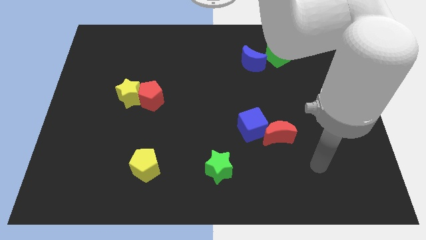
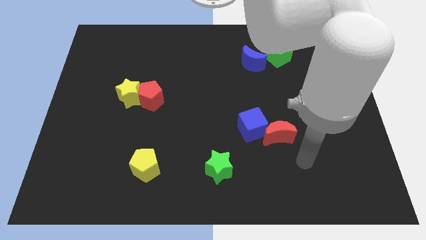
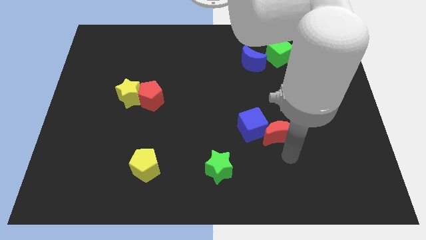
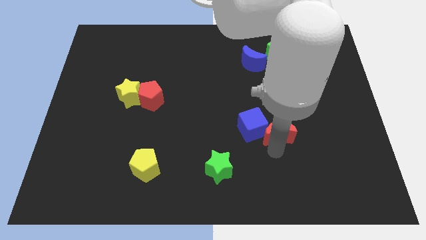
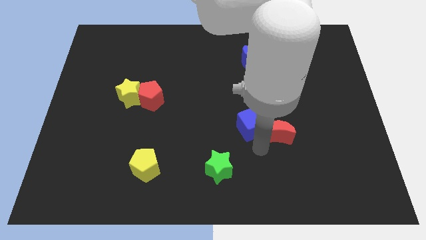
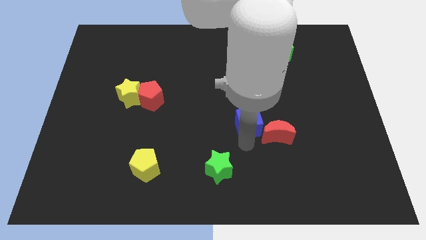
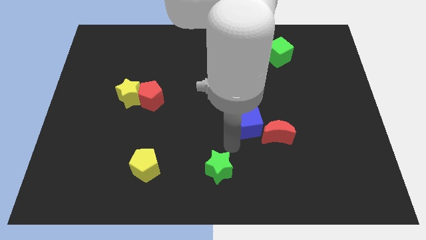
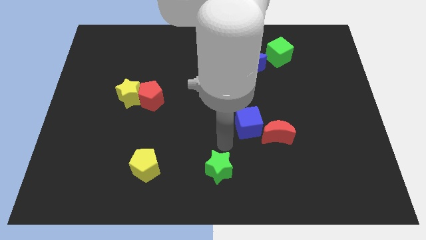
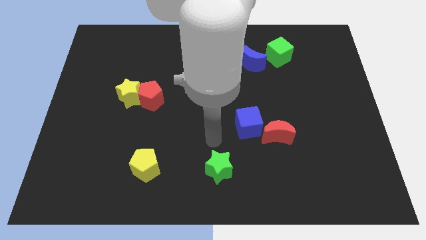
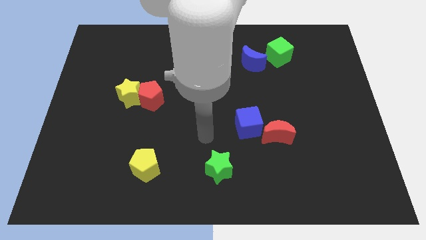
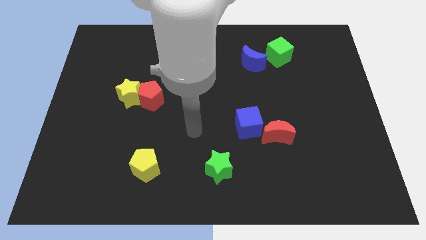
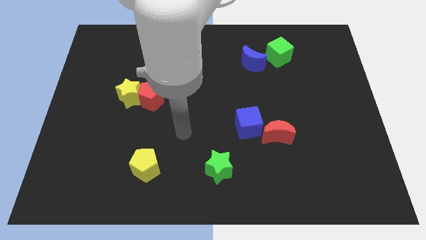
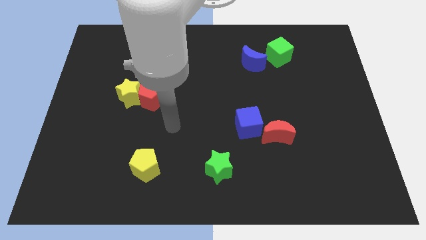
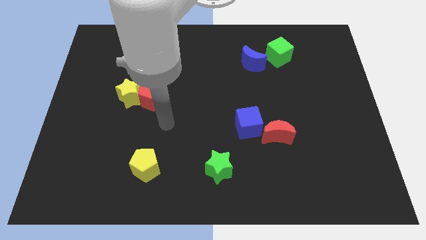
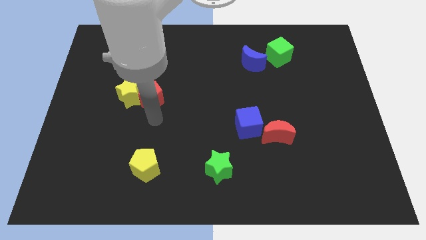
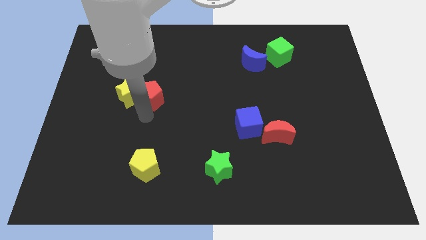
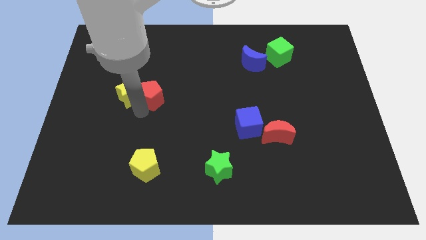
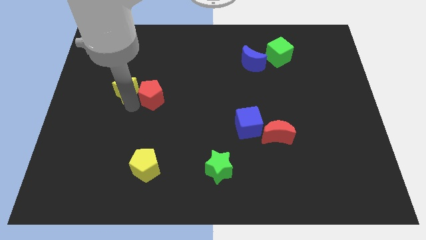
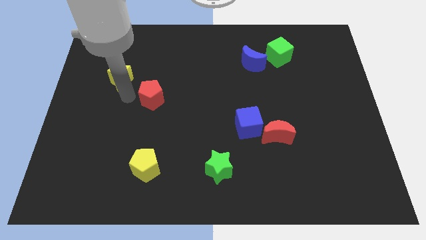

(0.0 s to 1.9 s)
separate the red pentagon from the yellow star

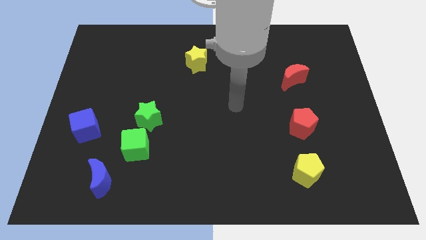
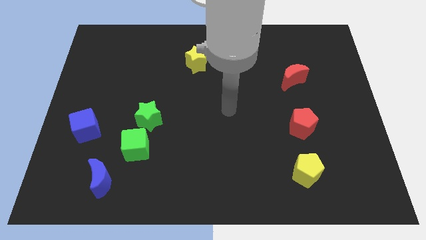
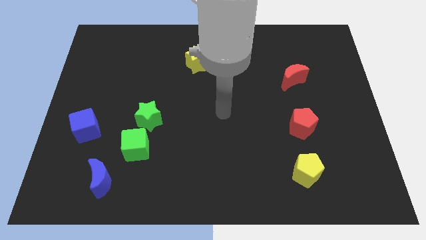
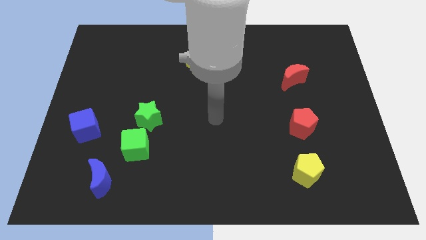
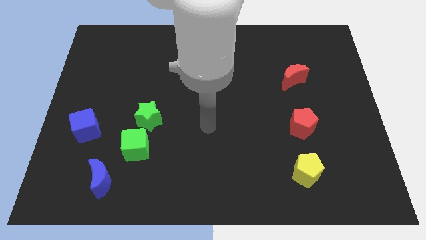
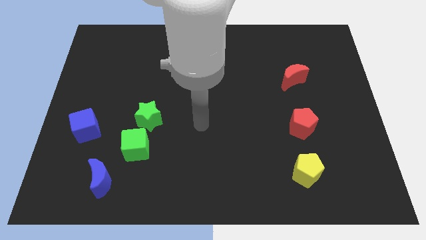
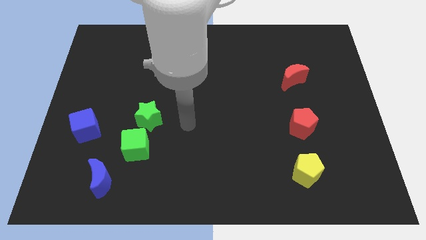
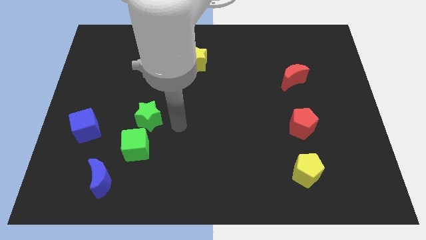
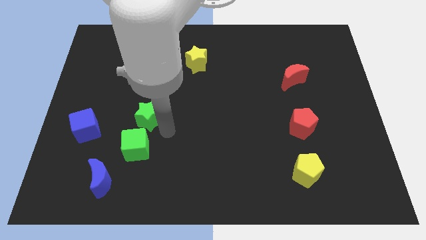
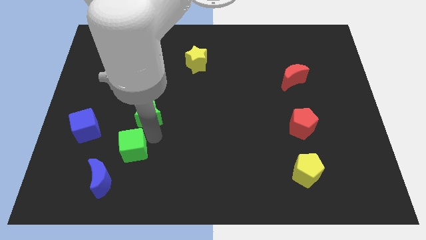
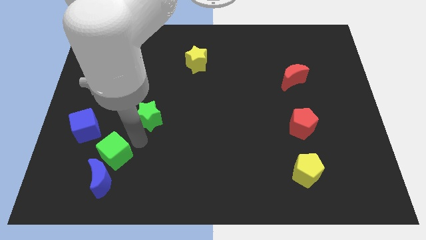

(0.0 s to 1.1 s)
separate the green star from the green cube

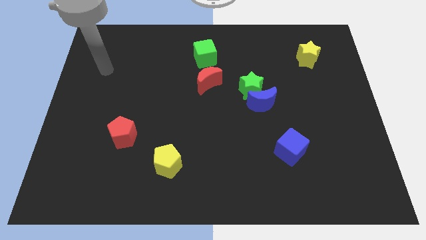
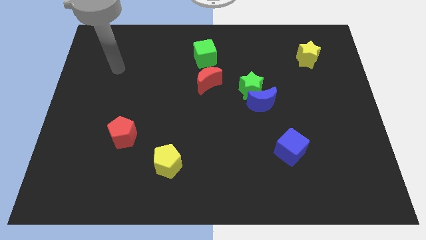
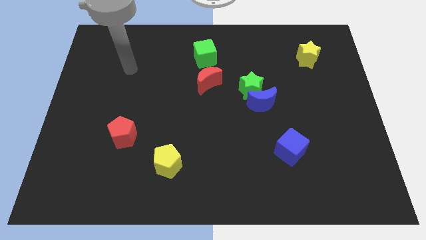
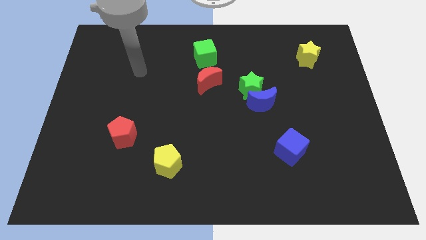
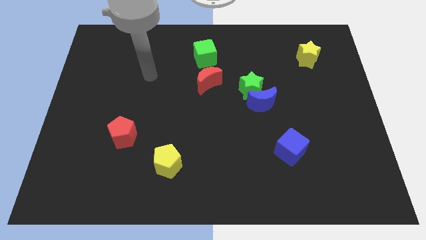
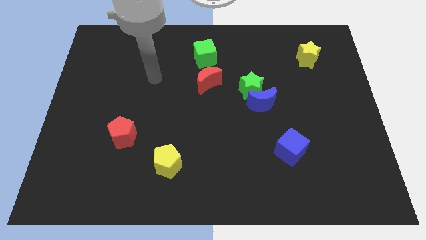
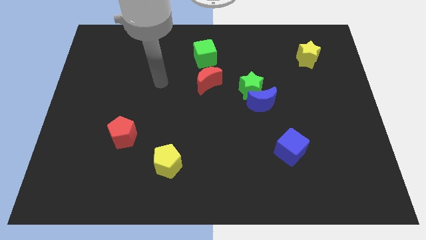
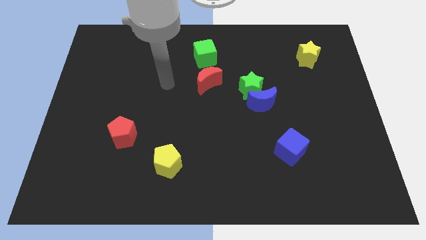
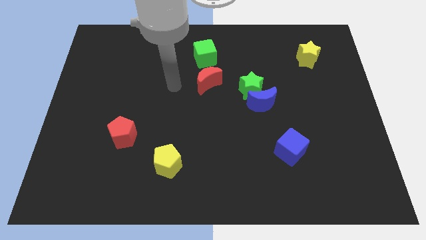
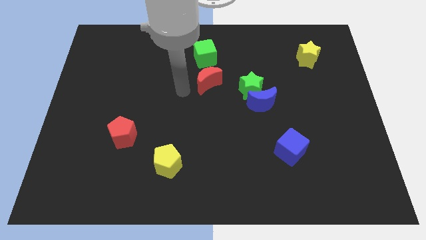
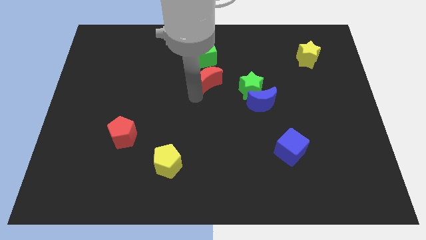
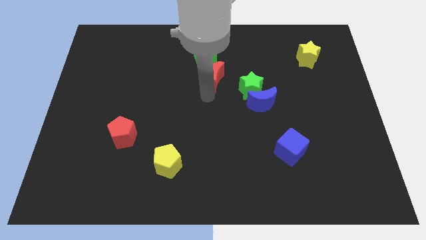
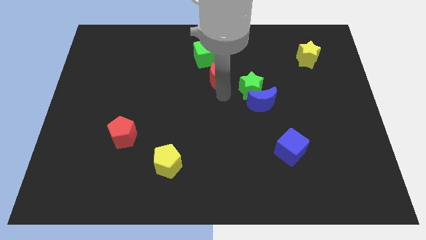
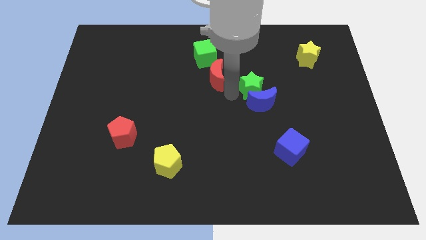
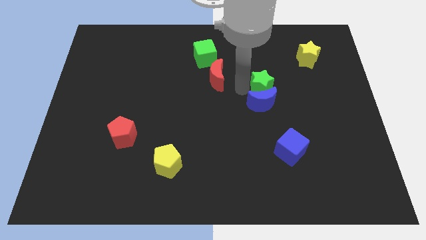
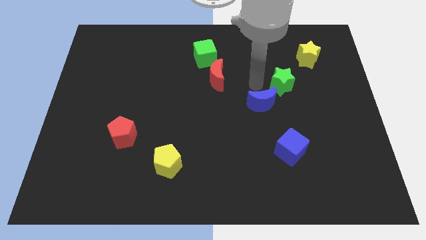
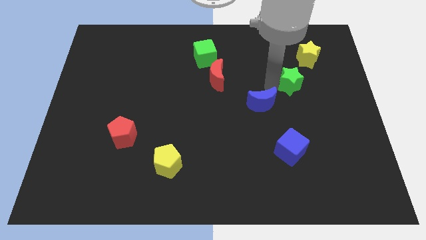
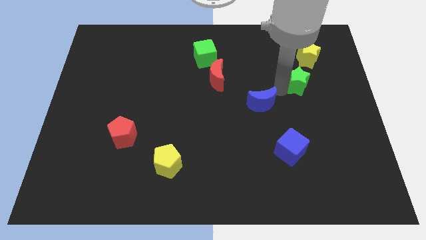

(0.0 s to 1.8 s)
separate the blue moon from the green star

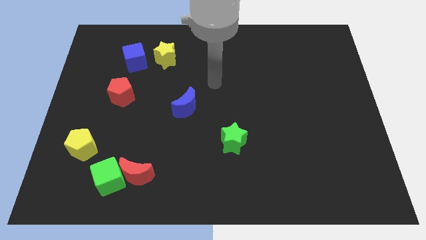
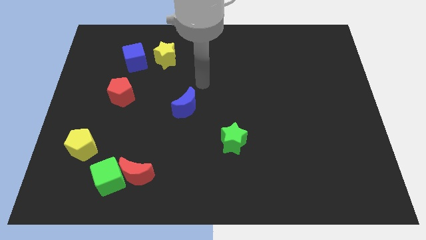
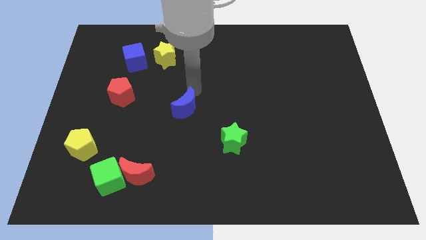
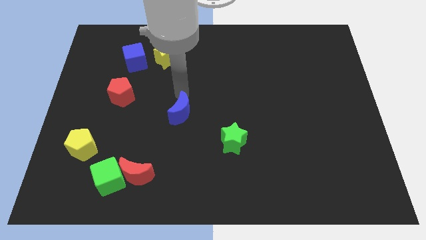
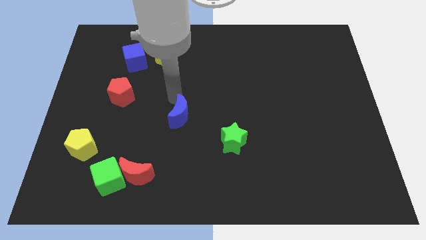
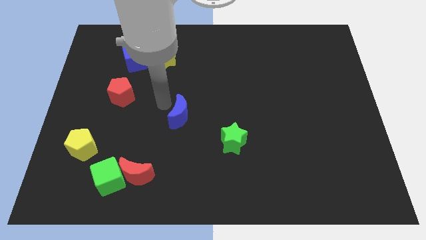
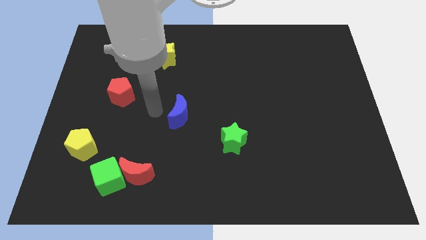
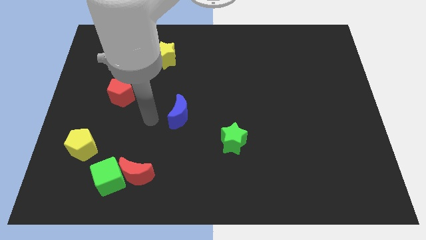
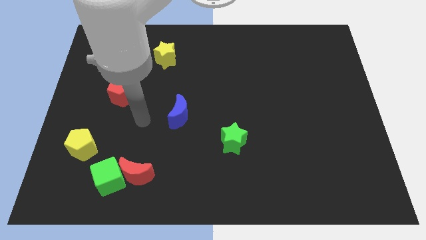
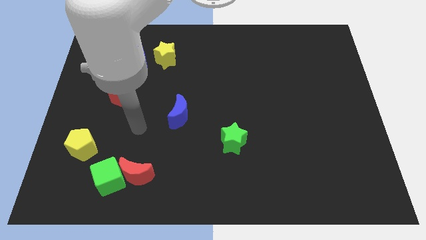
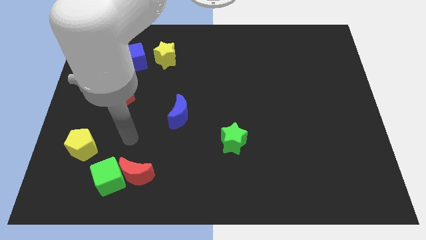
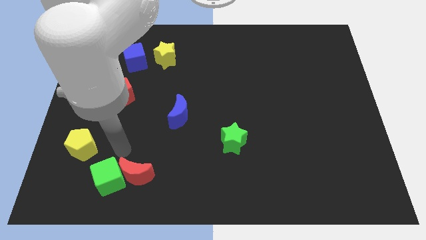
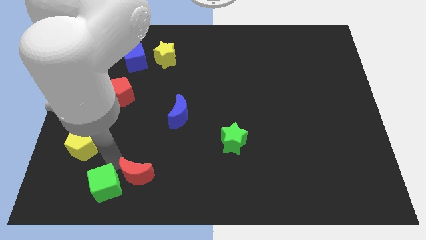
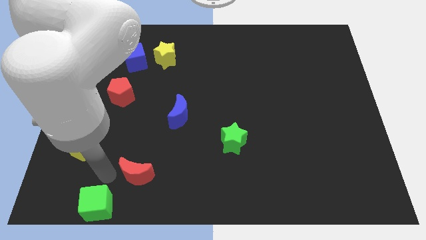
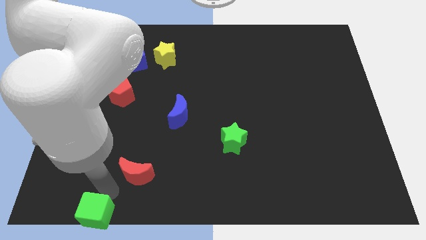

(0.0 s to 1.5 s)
move the red moon away from the green cube

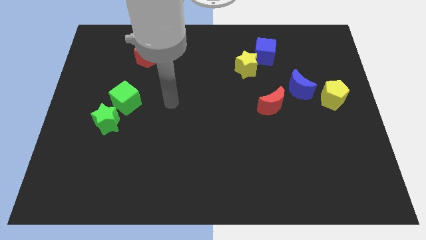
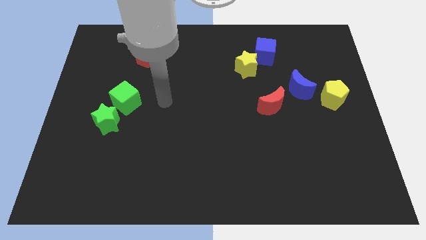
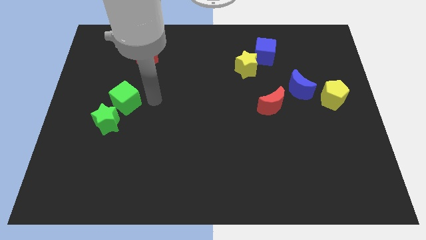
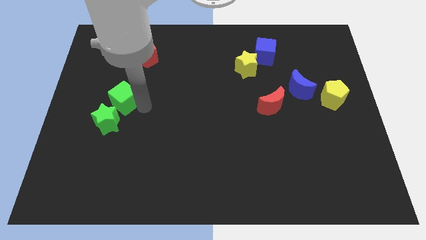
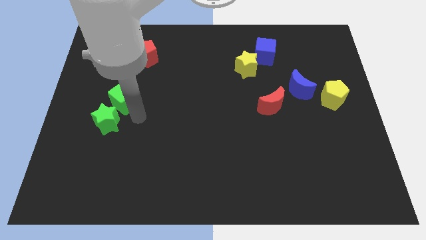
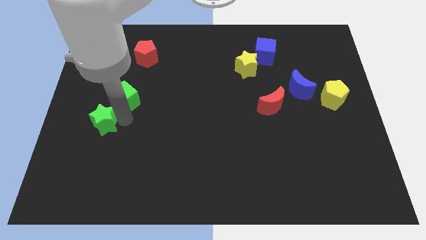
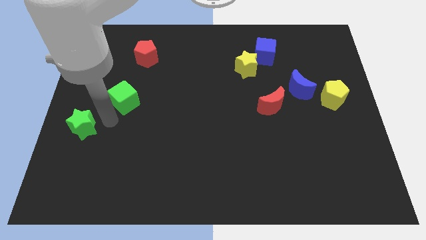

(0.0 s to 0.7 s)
separate the green cube from the green star

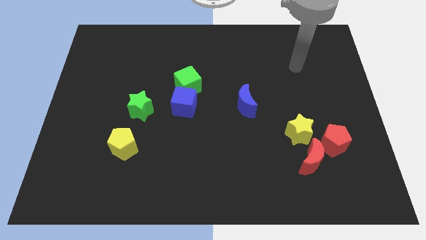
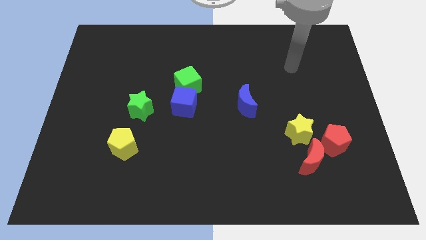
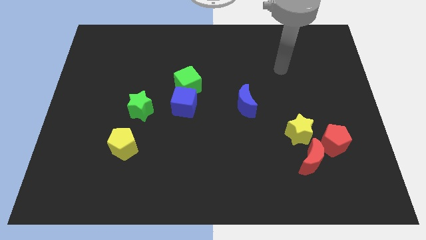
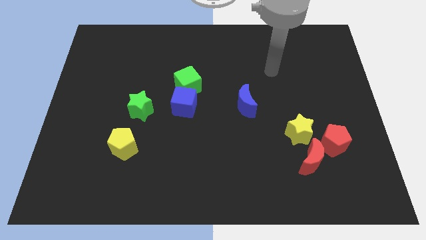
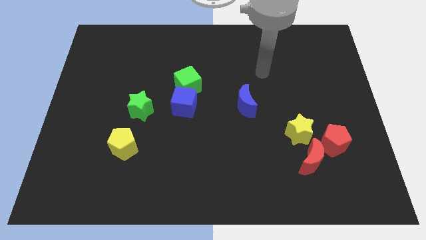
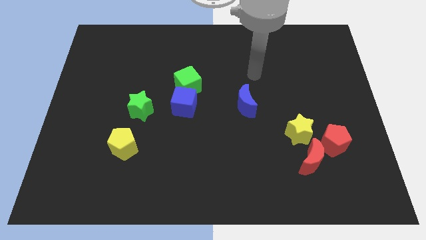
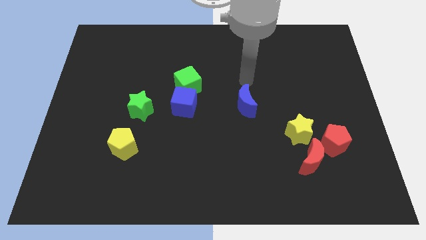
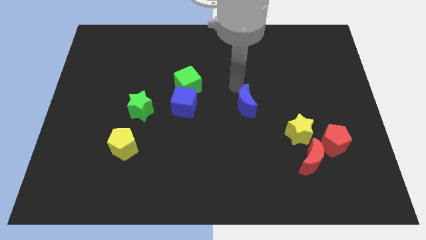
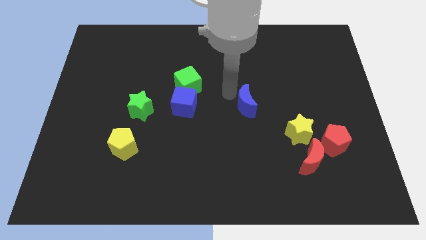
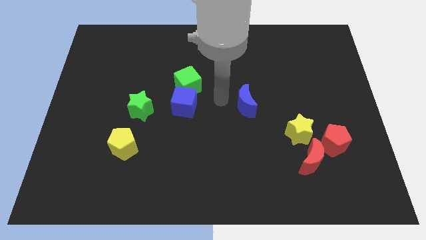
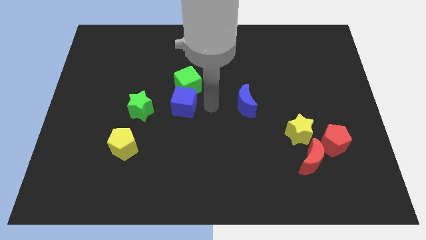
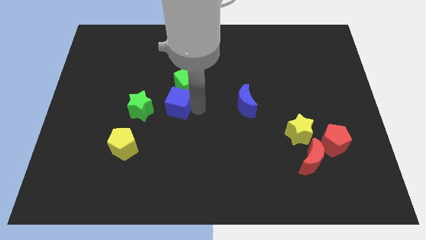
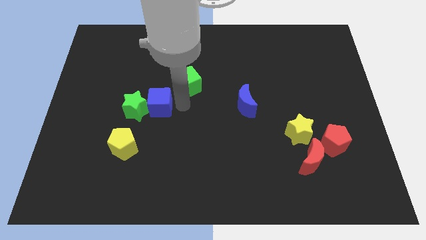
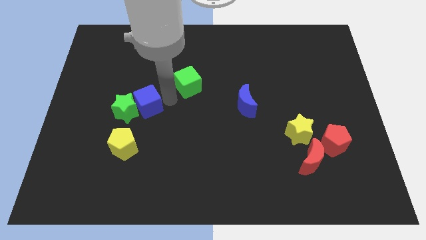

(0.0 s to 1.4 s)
pull the green cube apart from the blue cube

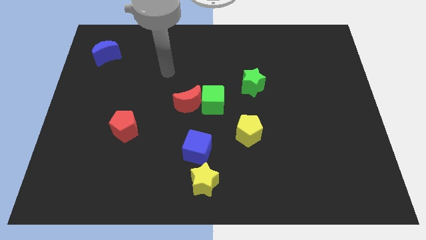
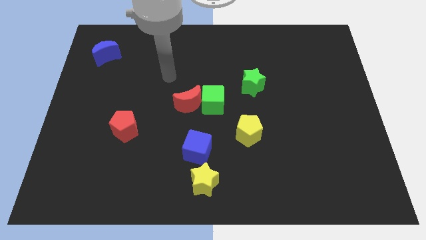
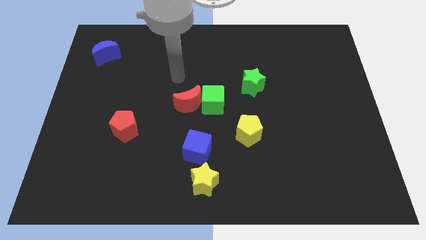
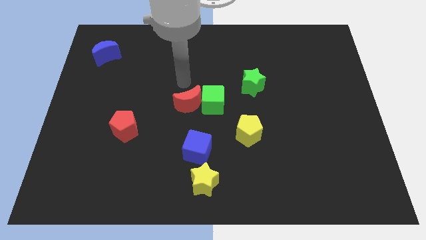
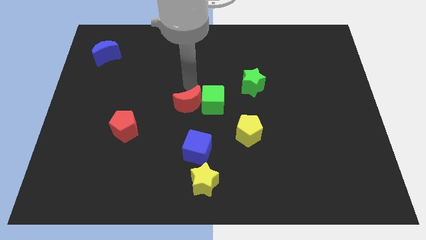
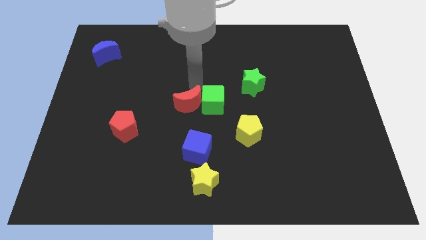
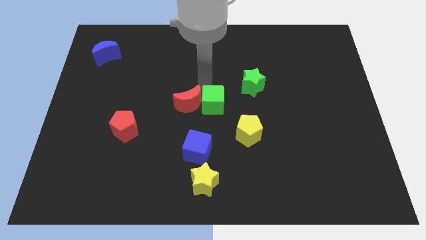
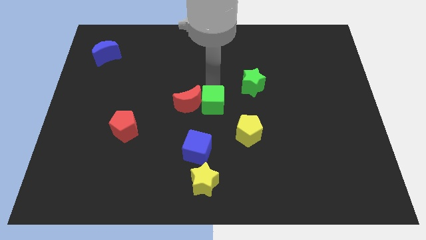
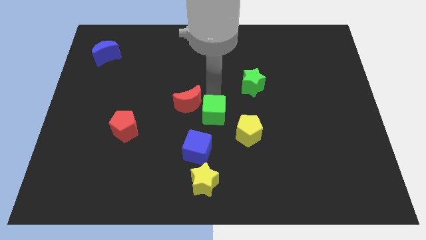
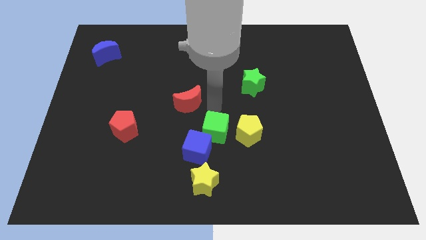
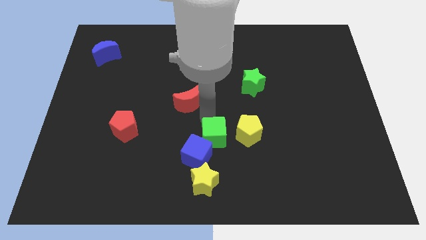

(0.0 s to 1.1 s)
pull the red moon apart from the green cube
